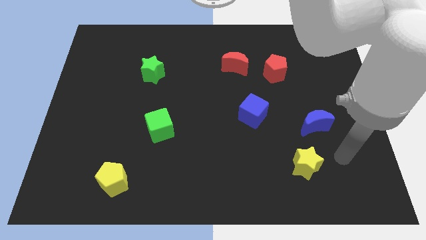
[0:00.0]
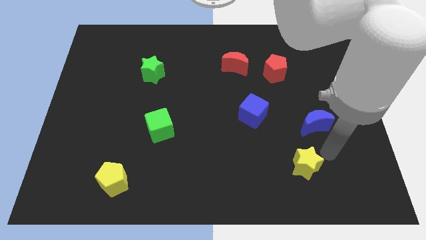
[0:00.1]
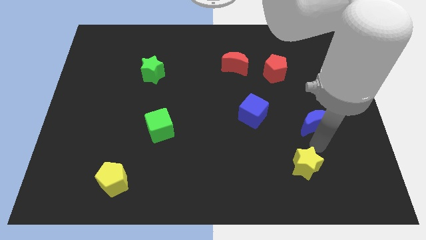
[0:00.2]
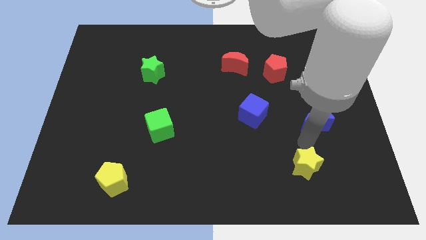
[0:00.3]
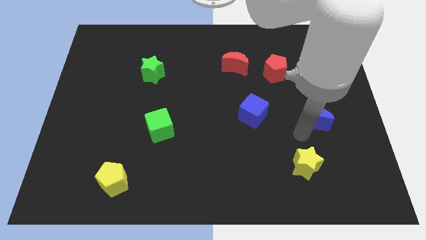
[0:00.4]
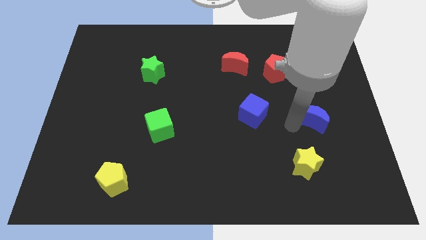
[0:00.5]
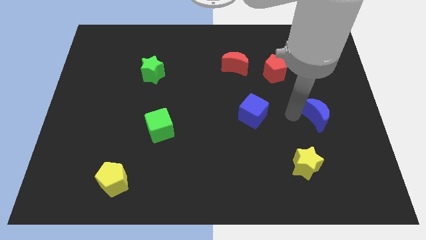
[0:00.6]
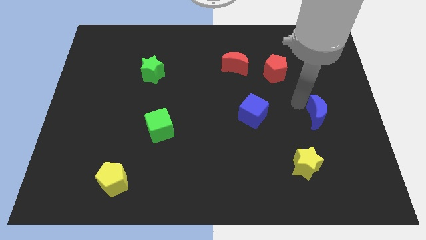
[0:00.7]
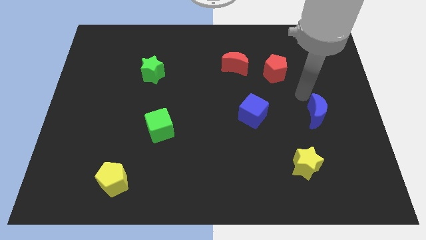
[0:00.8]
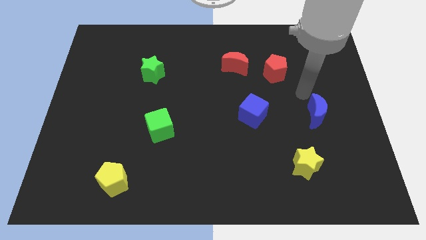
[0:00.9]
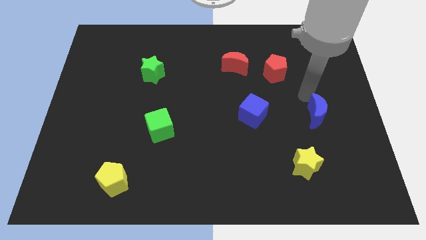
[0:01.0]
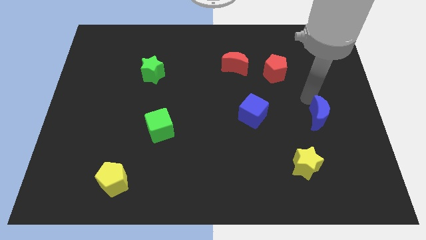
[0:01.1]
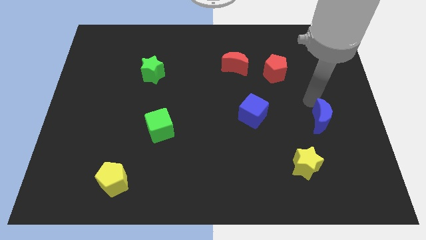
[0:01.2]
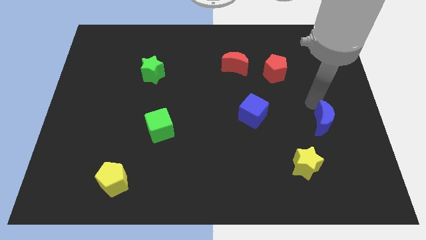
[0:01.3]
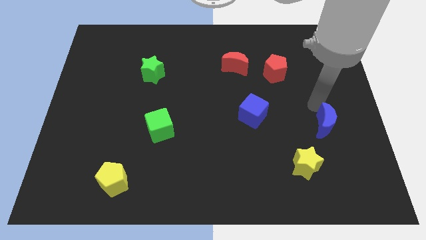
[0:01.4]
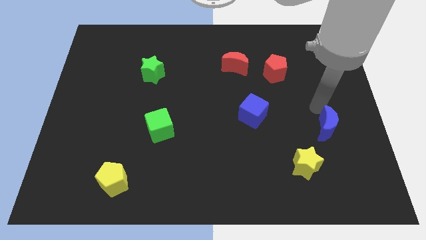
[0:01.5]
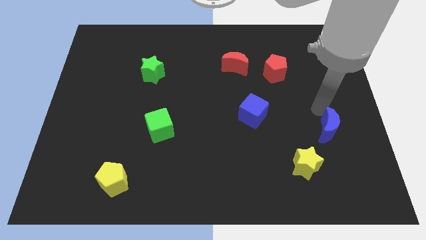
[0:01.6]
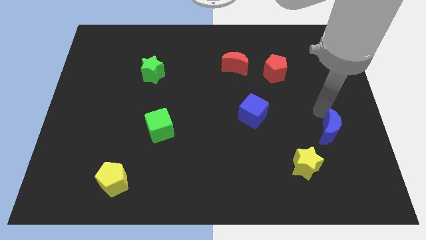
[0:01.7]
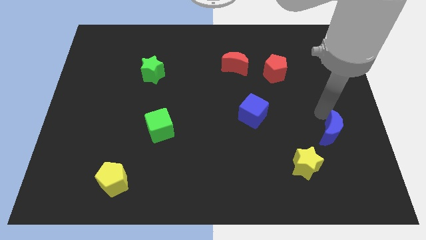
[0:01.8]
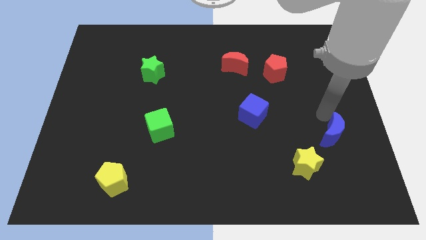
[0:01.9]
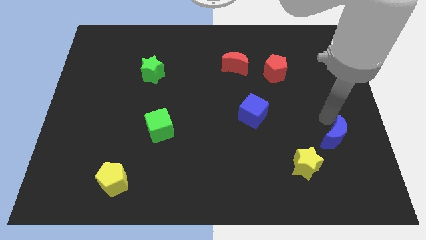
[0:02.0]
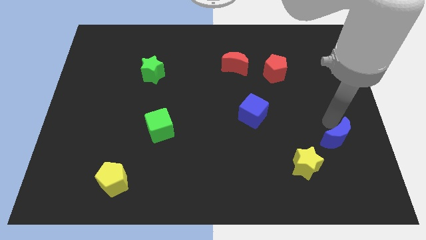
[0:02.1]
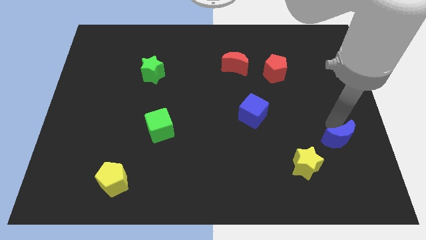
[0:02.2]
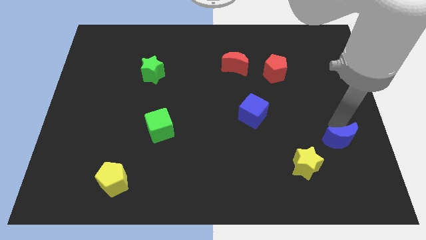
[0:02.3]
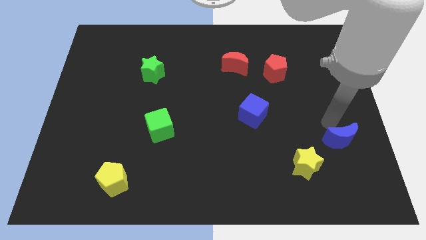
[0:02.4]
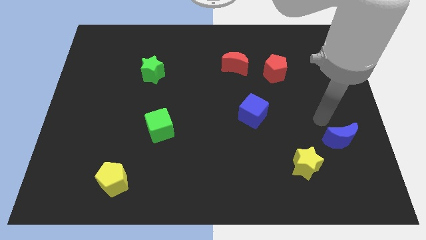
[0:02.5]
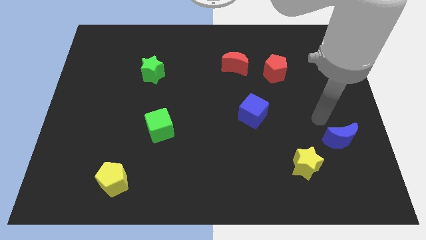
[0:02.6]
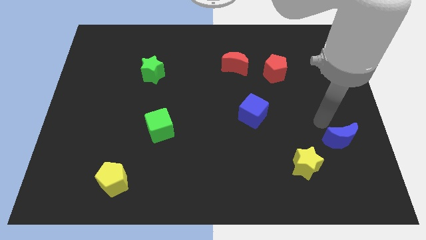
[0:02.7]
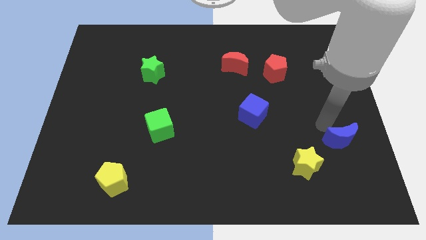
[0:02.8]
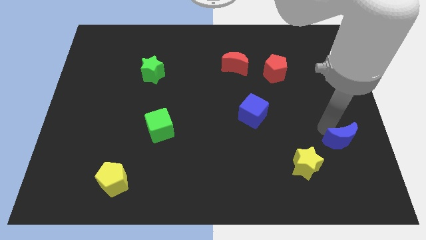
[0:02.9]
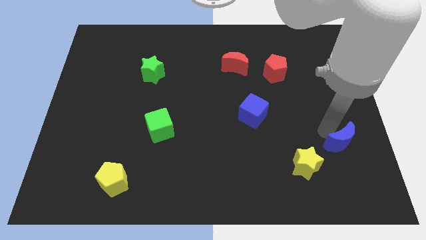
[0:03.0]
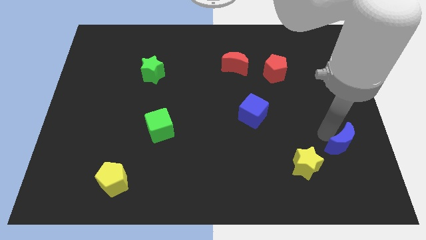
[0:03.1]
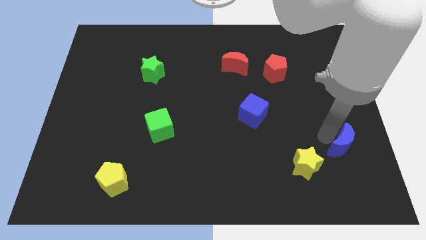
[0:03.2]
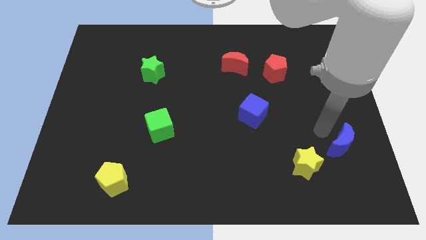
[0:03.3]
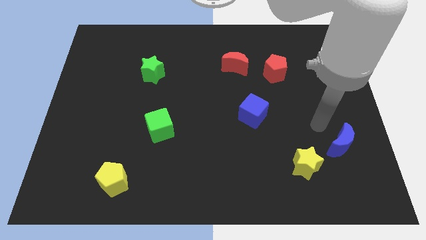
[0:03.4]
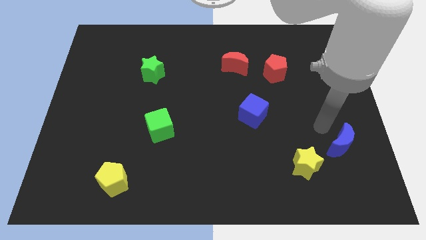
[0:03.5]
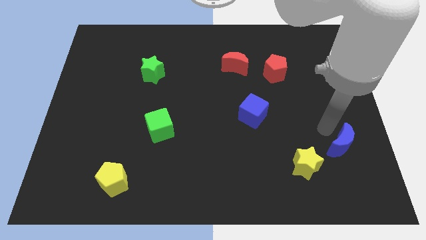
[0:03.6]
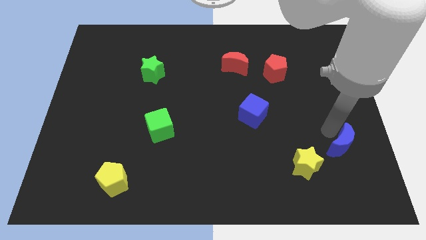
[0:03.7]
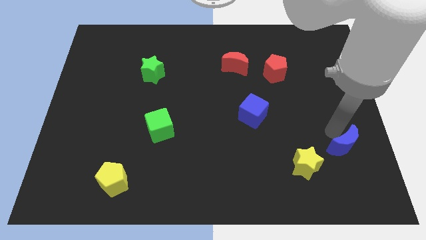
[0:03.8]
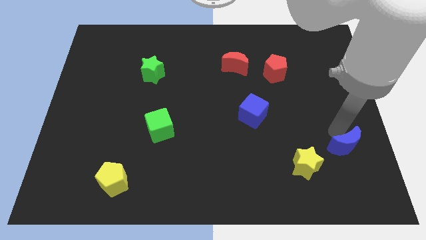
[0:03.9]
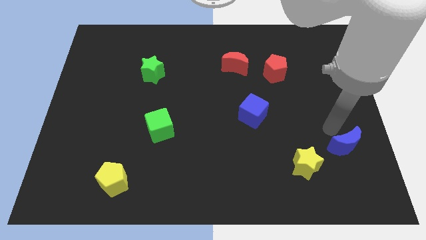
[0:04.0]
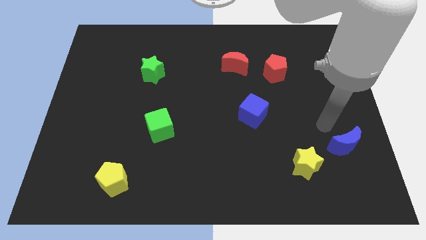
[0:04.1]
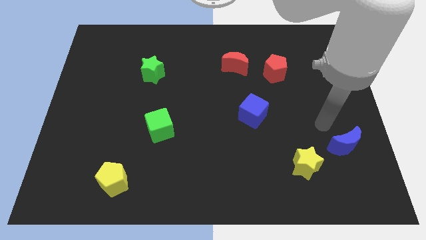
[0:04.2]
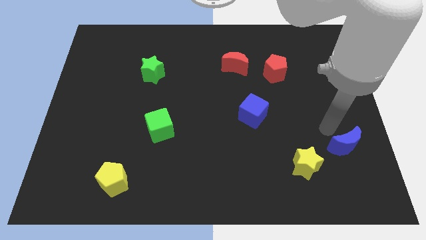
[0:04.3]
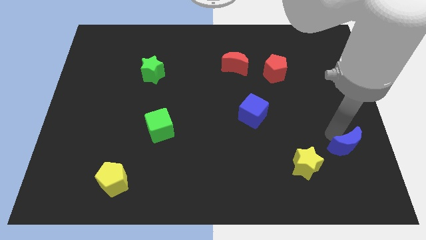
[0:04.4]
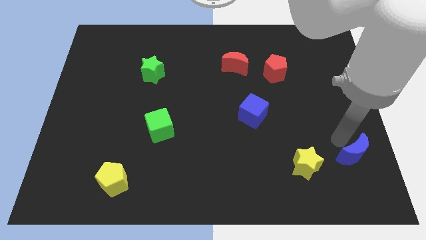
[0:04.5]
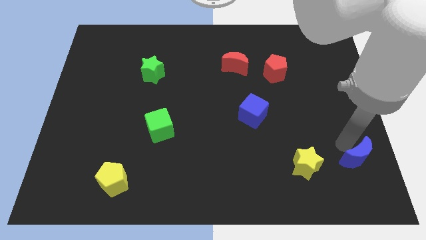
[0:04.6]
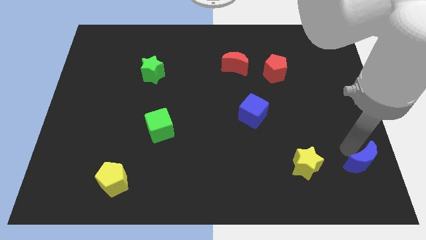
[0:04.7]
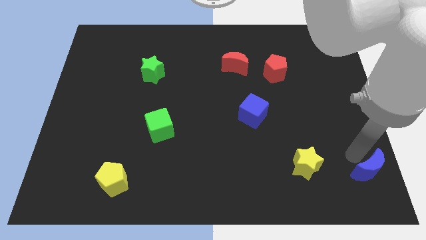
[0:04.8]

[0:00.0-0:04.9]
put the blue moon to the bottom right

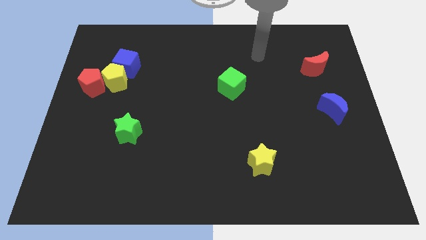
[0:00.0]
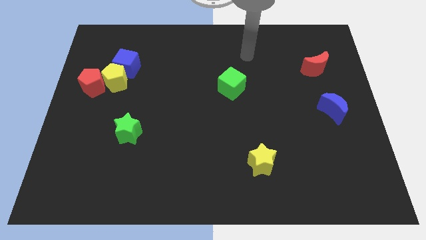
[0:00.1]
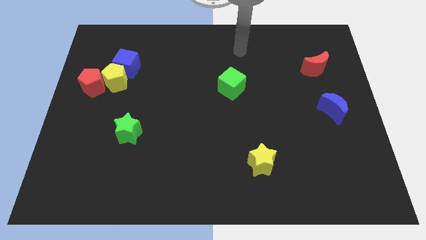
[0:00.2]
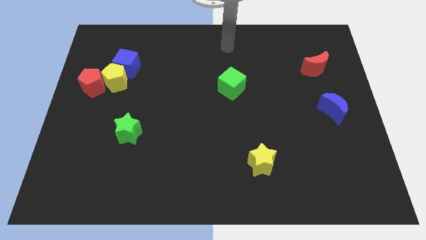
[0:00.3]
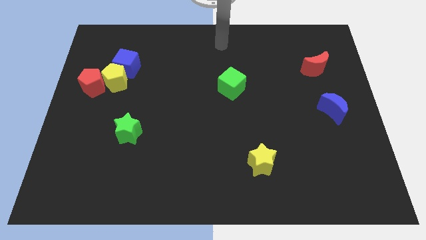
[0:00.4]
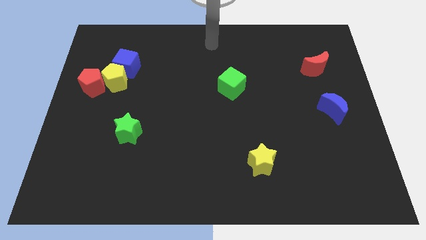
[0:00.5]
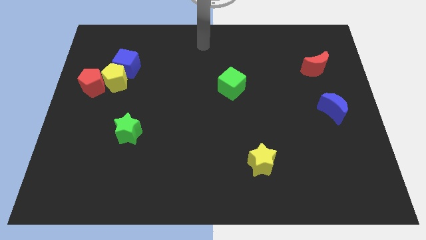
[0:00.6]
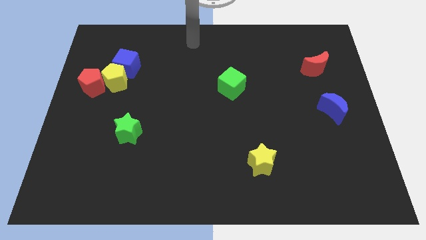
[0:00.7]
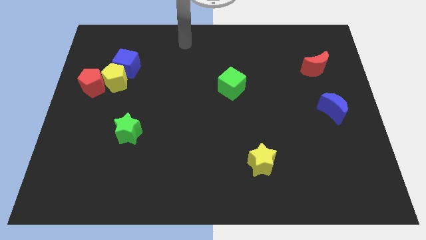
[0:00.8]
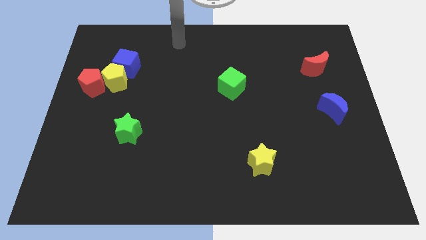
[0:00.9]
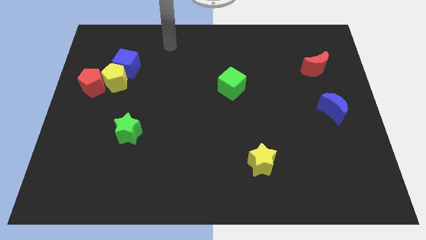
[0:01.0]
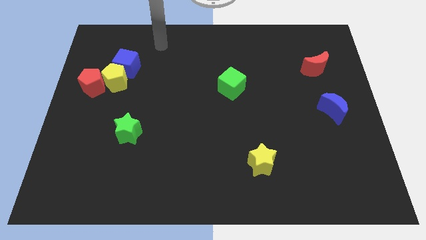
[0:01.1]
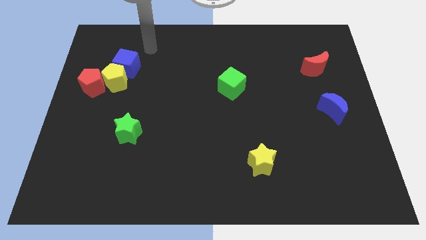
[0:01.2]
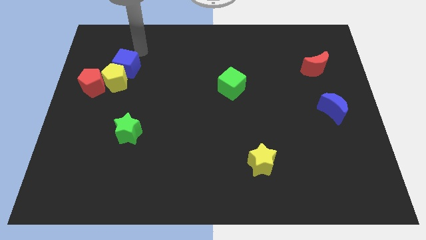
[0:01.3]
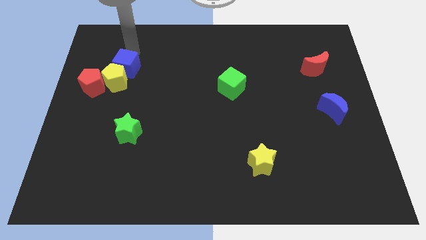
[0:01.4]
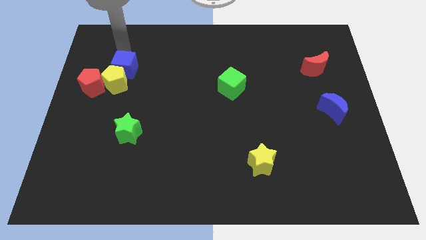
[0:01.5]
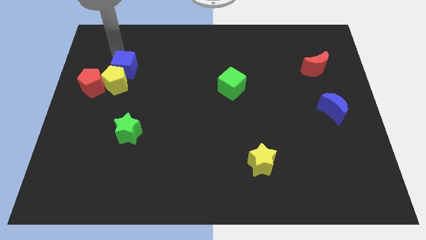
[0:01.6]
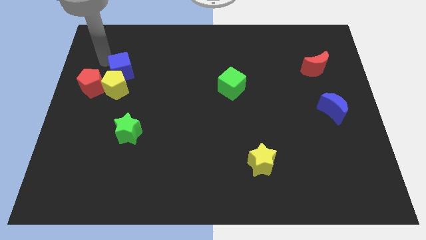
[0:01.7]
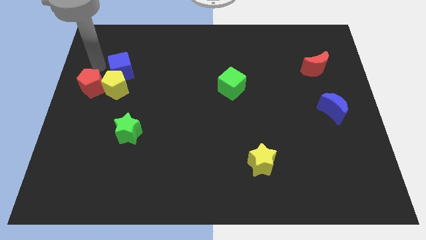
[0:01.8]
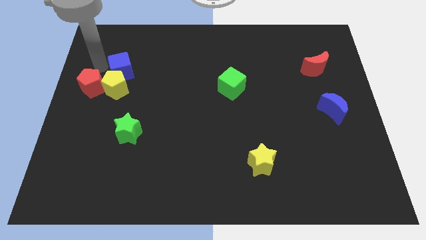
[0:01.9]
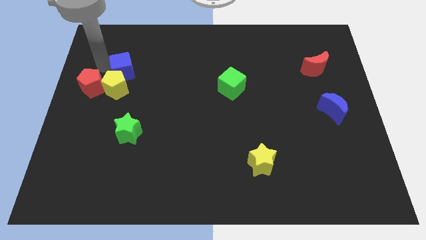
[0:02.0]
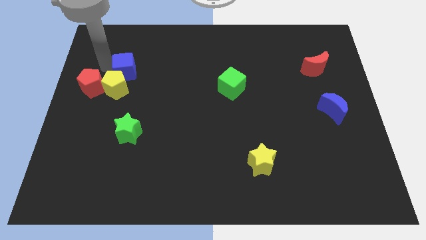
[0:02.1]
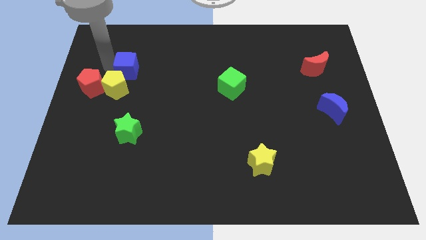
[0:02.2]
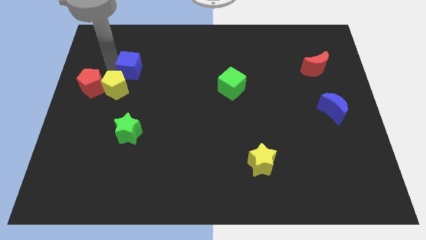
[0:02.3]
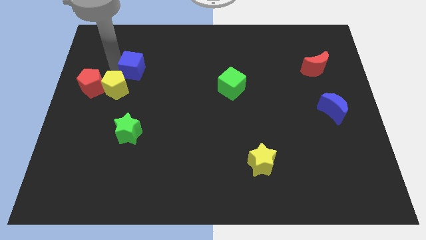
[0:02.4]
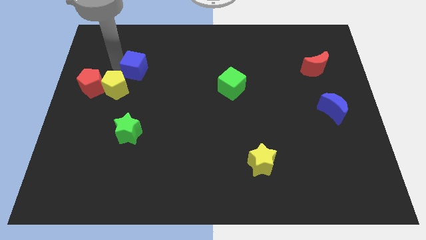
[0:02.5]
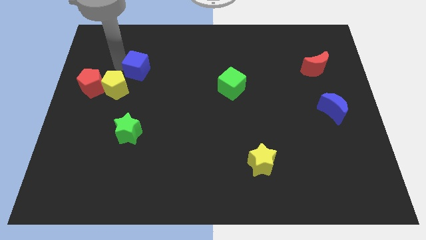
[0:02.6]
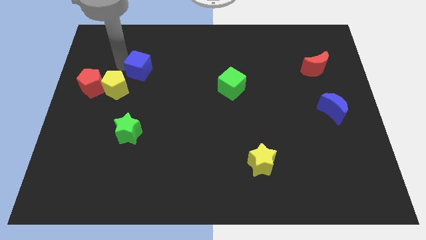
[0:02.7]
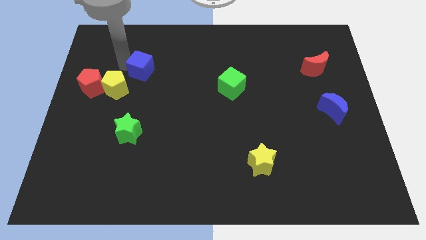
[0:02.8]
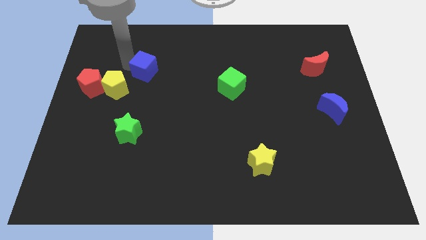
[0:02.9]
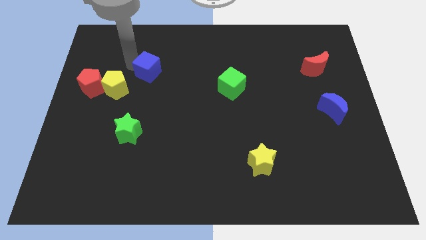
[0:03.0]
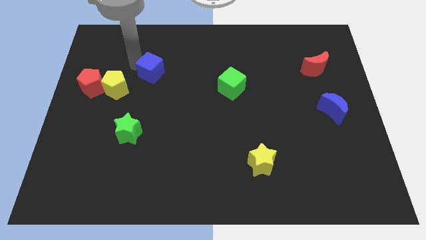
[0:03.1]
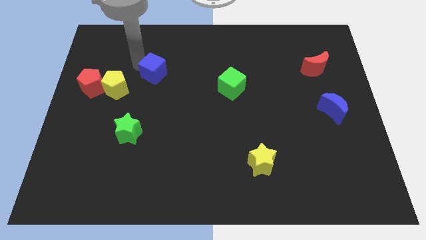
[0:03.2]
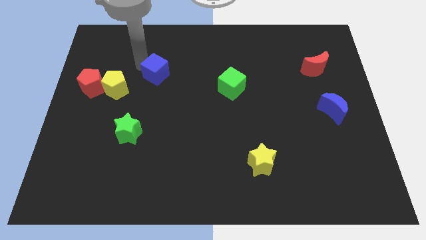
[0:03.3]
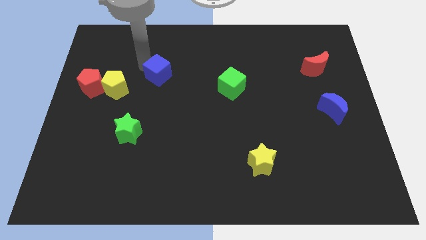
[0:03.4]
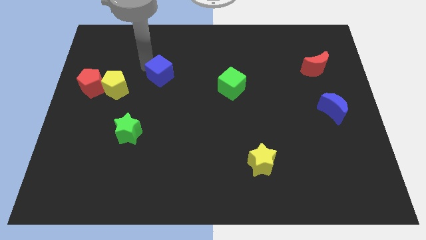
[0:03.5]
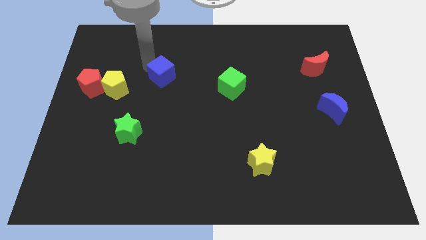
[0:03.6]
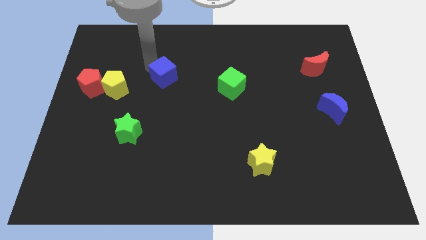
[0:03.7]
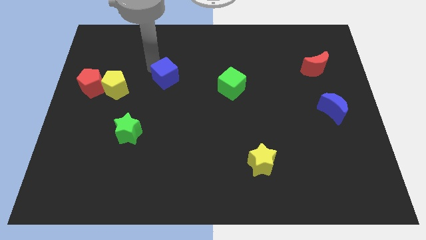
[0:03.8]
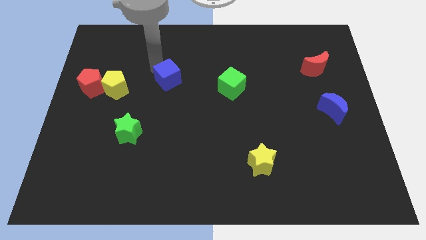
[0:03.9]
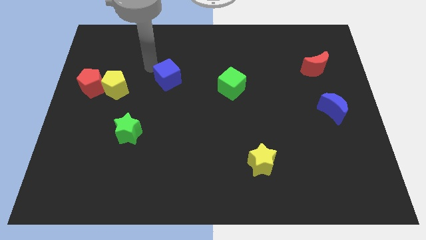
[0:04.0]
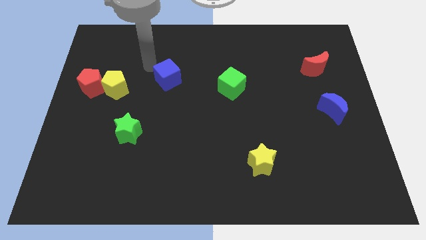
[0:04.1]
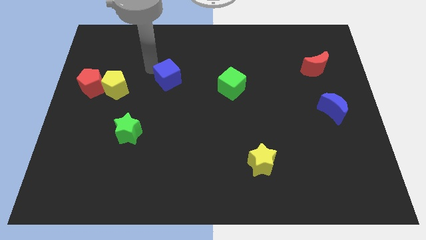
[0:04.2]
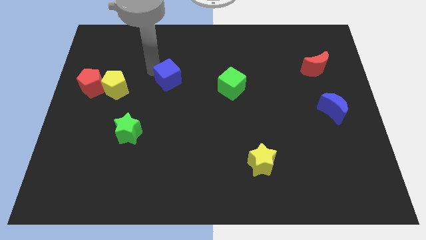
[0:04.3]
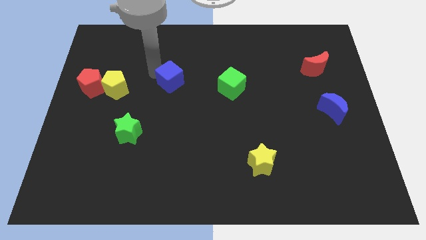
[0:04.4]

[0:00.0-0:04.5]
move the blue cube to the center
